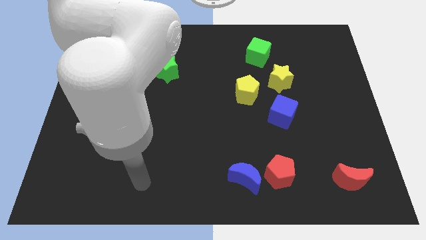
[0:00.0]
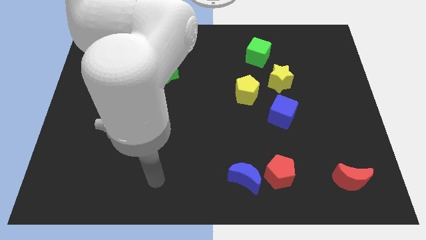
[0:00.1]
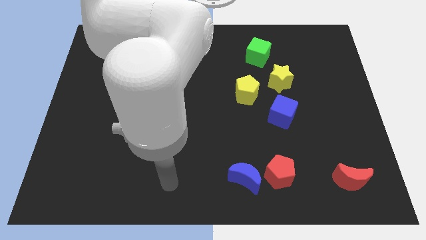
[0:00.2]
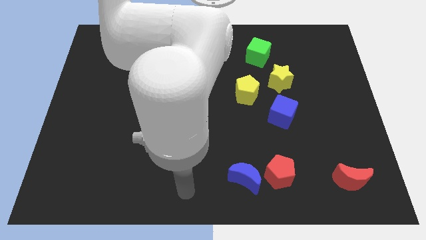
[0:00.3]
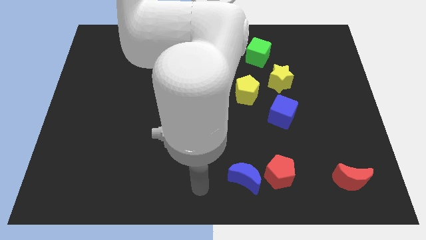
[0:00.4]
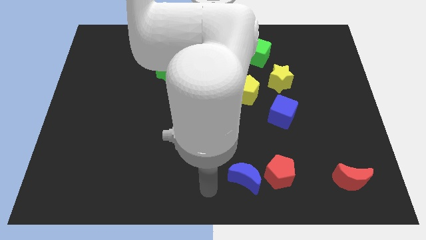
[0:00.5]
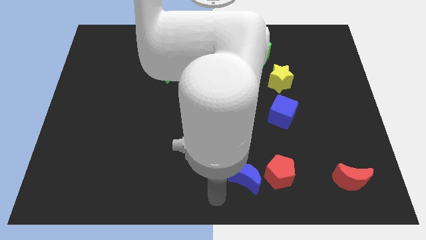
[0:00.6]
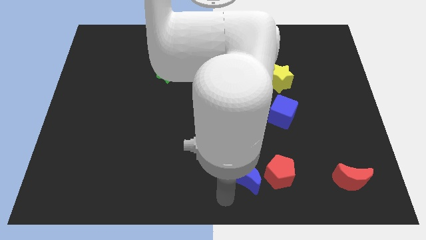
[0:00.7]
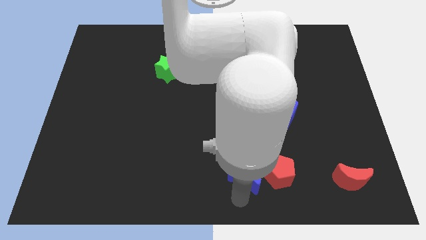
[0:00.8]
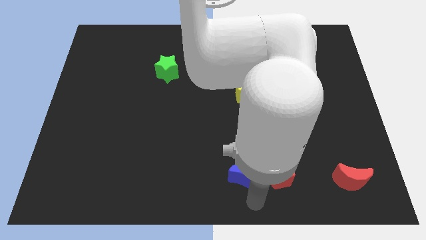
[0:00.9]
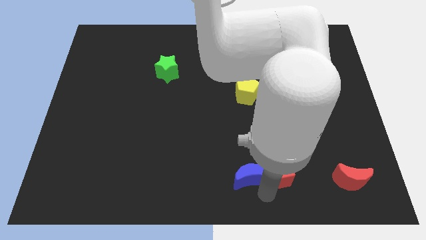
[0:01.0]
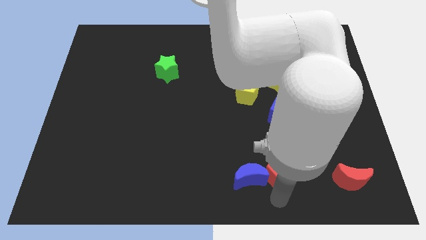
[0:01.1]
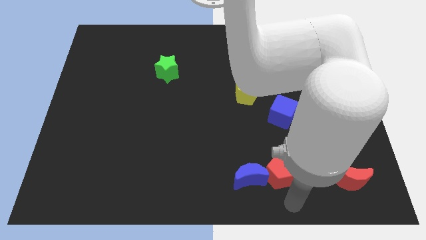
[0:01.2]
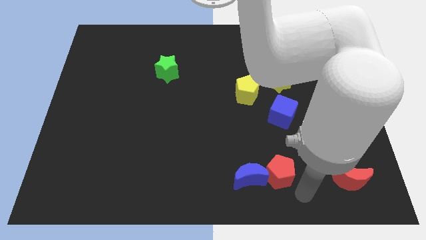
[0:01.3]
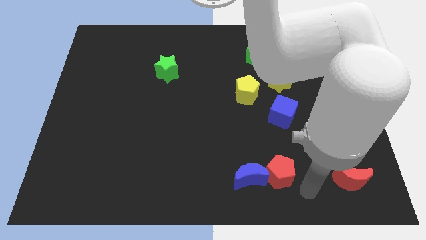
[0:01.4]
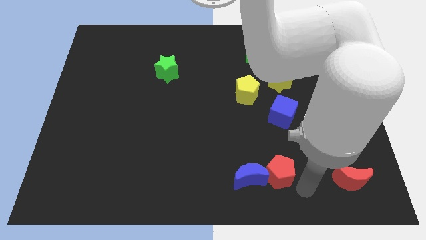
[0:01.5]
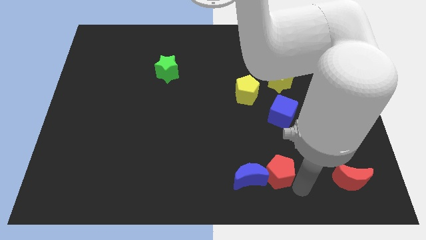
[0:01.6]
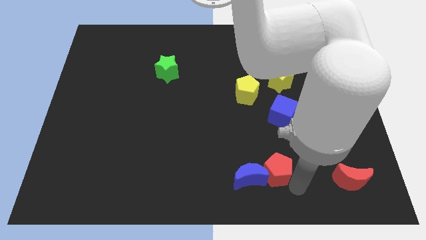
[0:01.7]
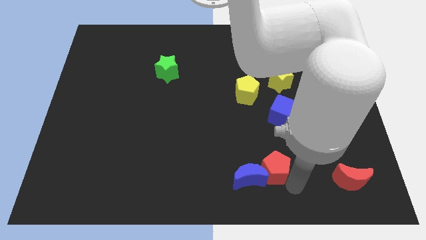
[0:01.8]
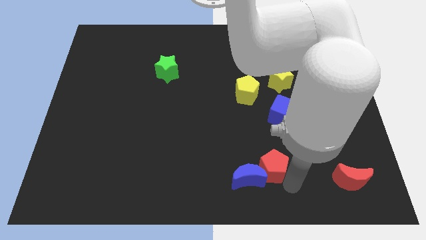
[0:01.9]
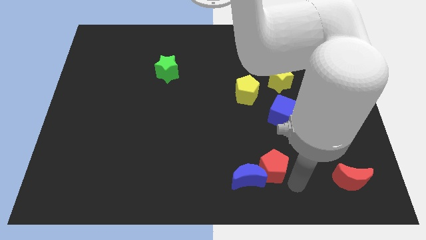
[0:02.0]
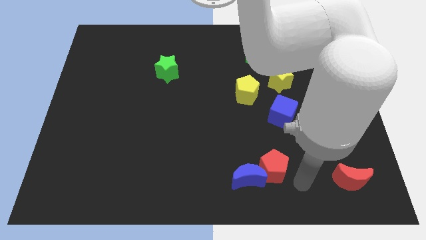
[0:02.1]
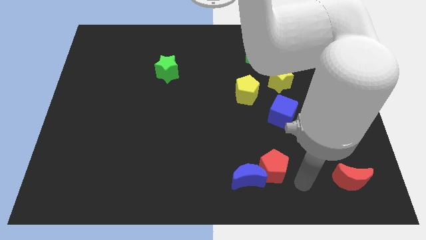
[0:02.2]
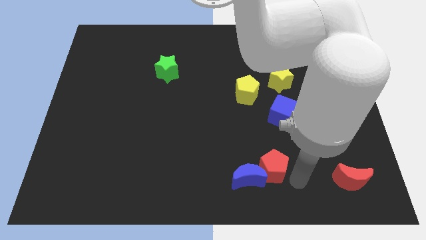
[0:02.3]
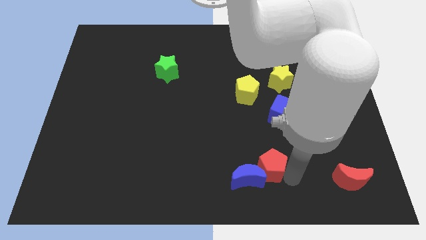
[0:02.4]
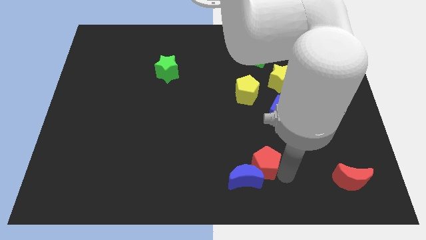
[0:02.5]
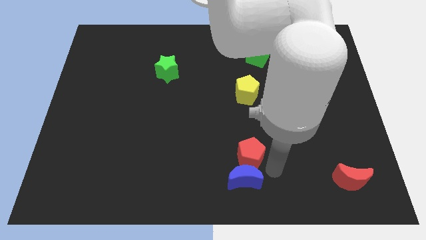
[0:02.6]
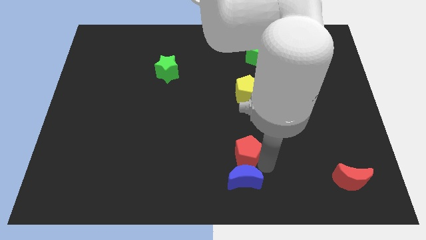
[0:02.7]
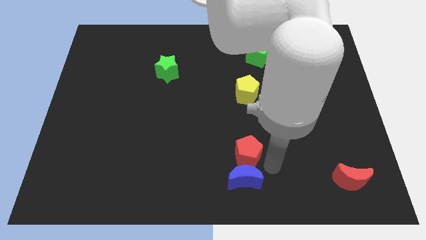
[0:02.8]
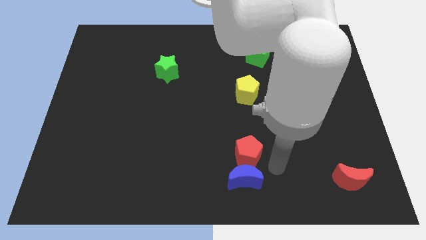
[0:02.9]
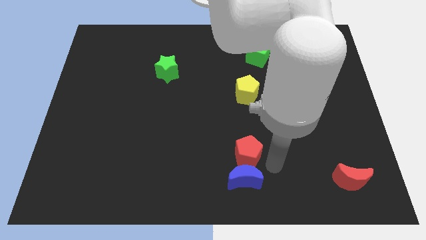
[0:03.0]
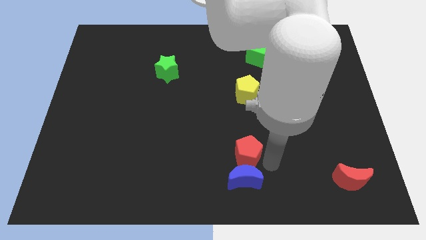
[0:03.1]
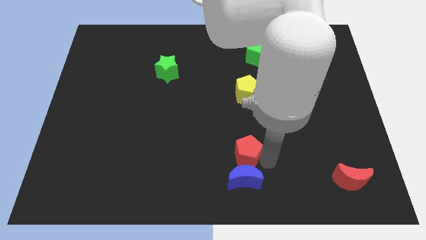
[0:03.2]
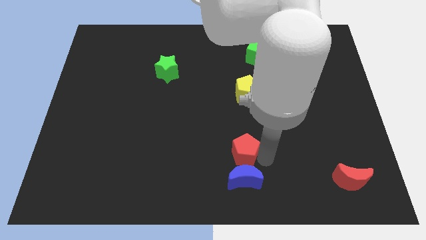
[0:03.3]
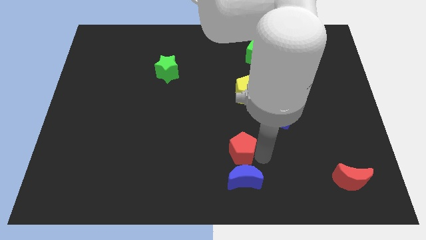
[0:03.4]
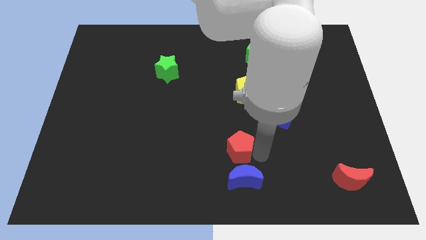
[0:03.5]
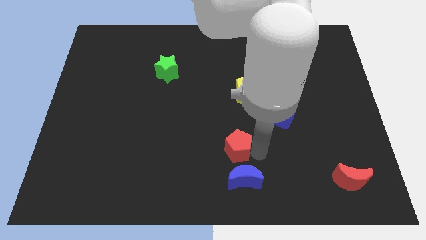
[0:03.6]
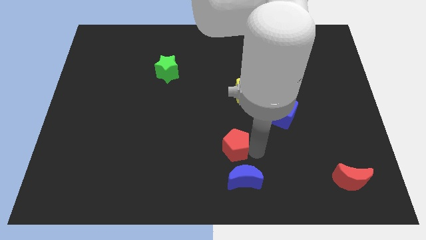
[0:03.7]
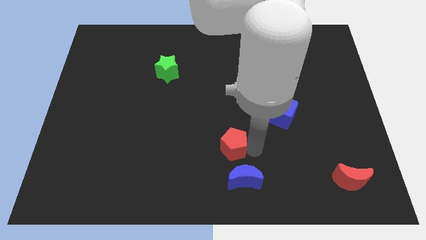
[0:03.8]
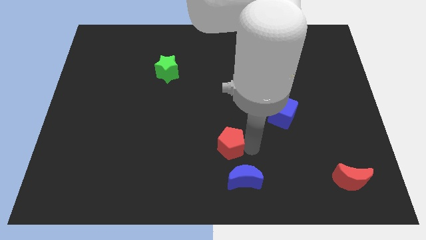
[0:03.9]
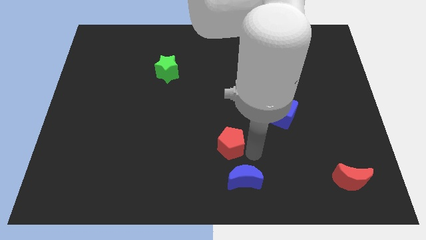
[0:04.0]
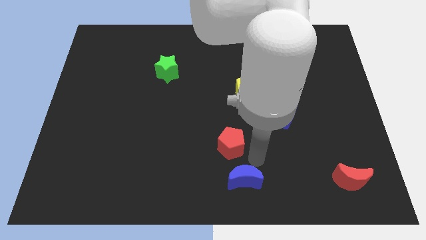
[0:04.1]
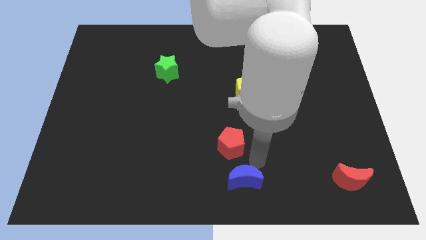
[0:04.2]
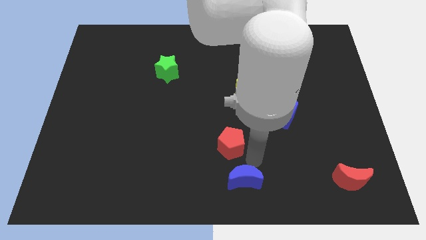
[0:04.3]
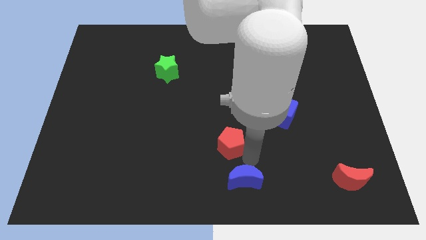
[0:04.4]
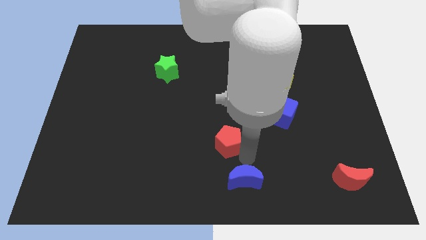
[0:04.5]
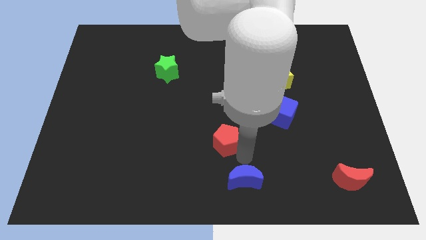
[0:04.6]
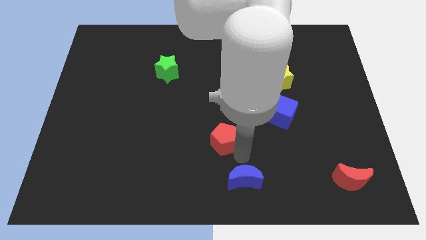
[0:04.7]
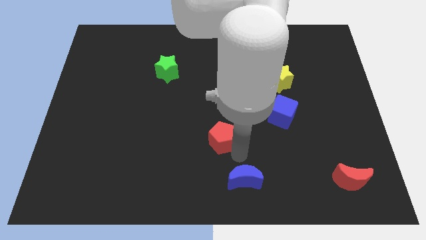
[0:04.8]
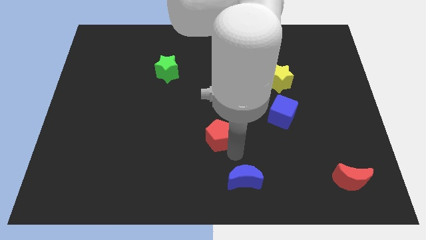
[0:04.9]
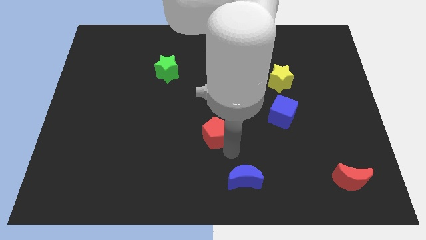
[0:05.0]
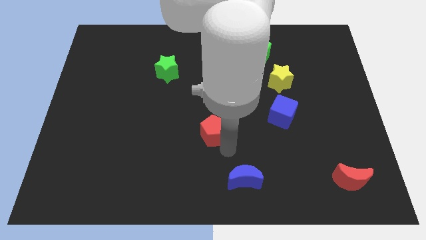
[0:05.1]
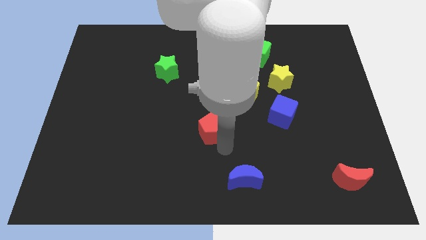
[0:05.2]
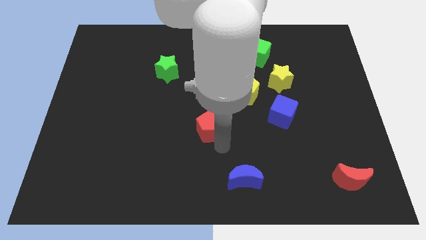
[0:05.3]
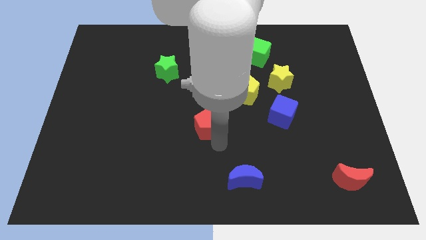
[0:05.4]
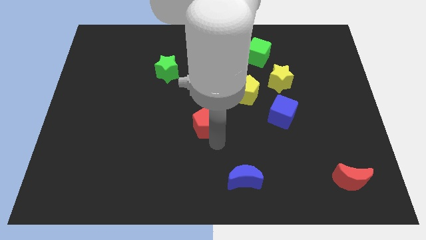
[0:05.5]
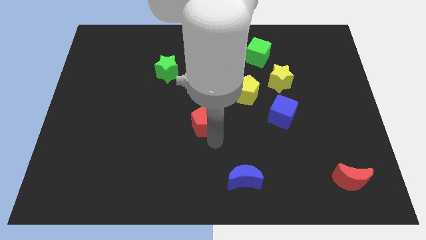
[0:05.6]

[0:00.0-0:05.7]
push the red pentagon upwards and left

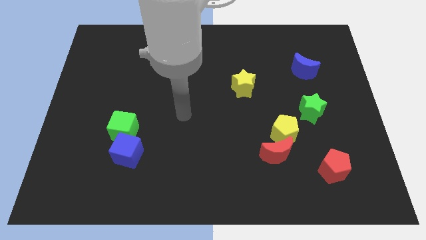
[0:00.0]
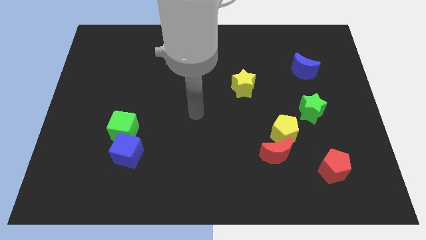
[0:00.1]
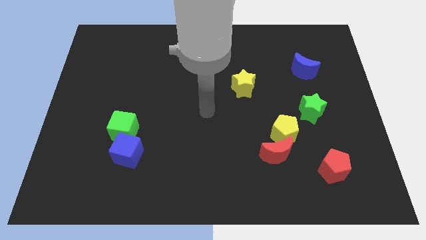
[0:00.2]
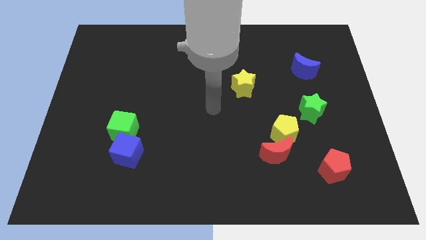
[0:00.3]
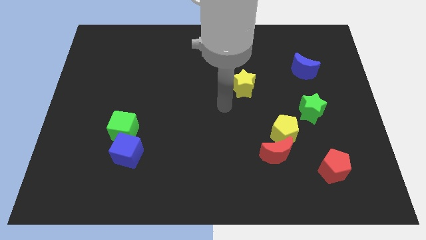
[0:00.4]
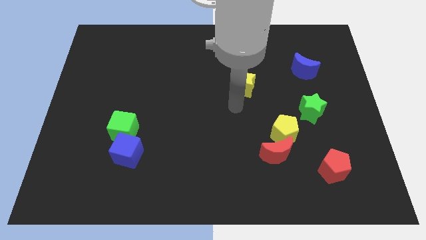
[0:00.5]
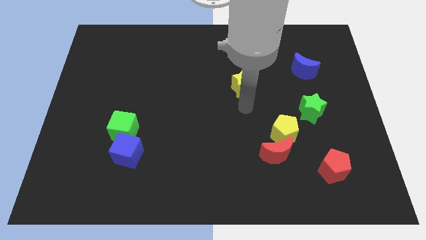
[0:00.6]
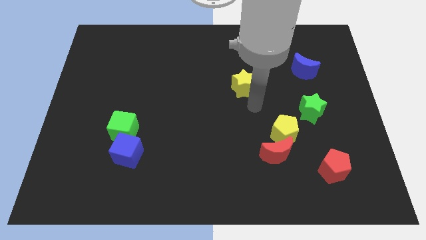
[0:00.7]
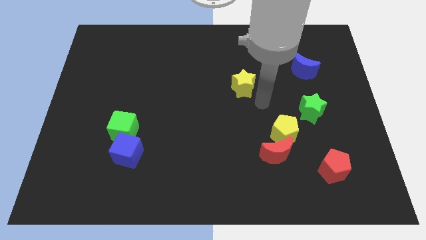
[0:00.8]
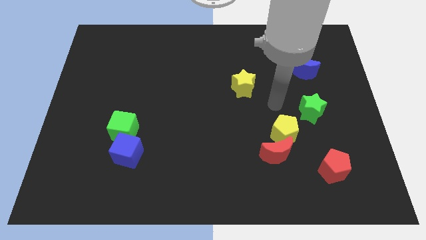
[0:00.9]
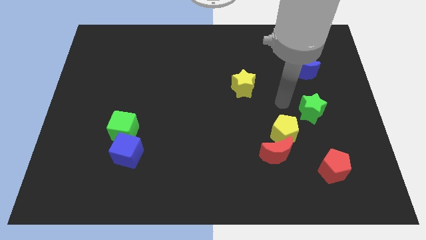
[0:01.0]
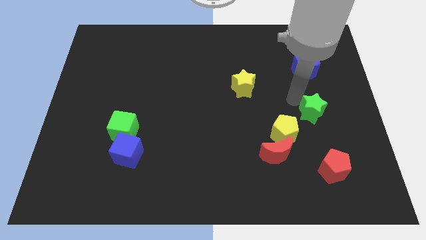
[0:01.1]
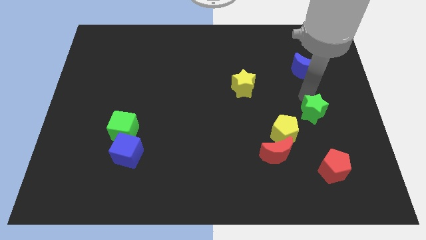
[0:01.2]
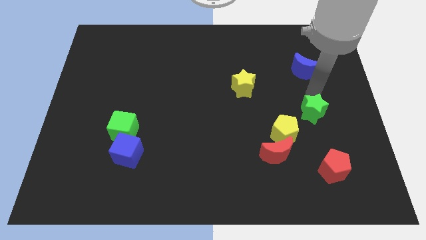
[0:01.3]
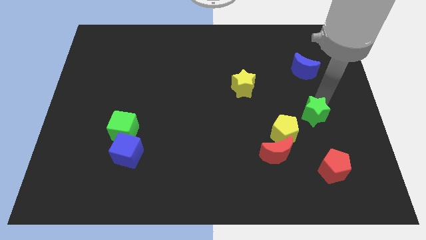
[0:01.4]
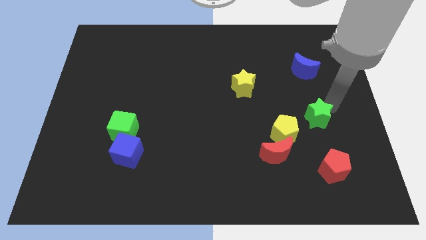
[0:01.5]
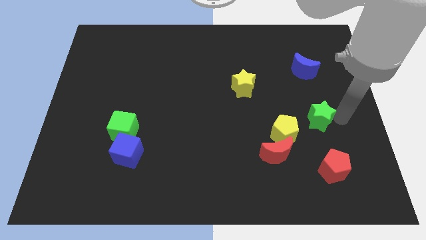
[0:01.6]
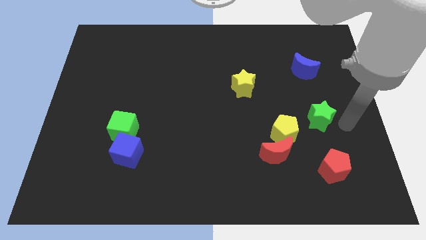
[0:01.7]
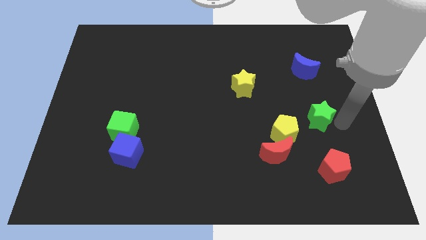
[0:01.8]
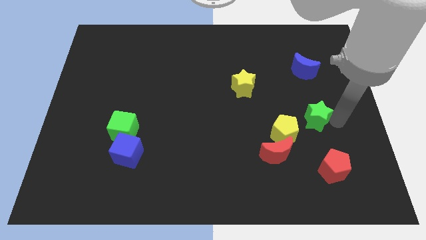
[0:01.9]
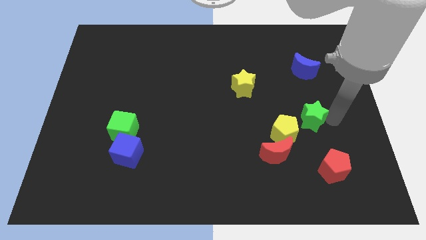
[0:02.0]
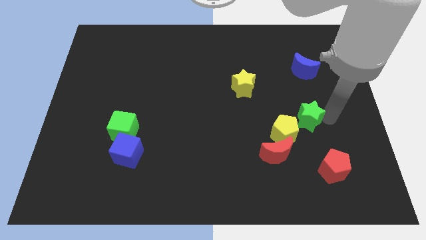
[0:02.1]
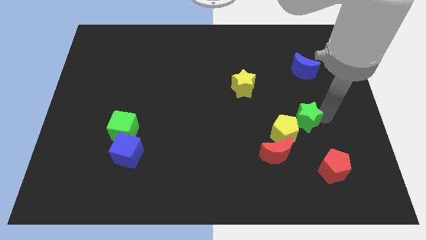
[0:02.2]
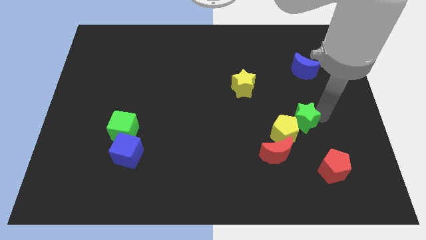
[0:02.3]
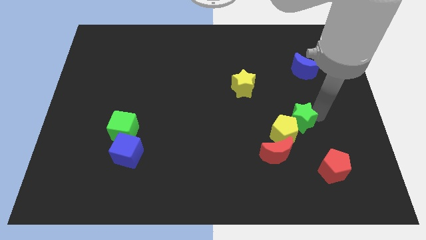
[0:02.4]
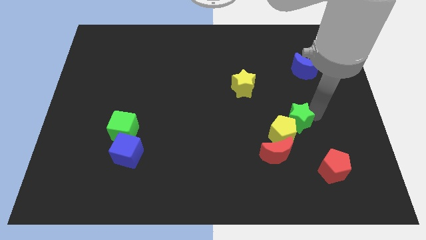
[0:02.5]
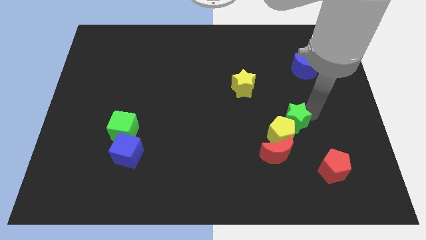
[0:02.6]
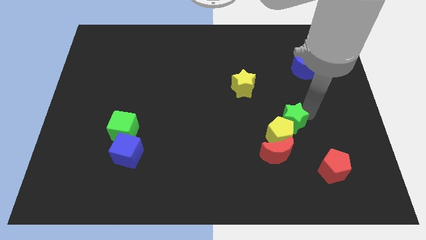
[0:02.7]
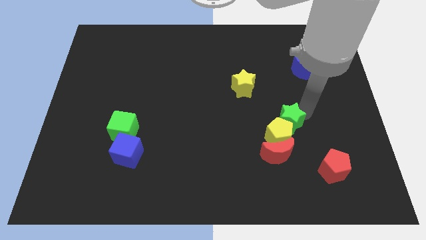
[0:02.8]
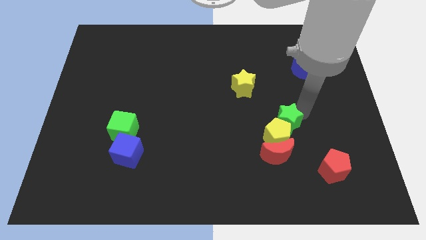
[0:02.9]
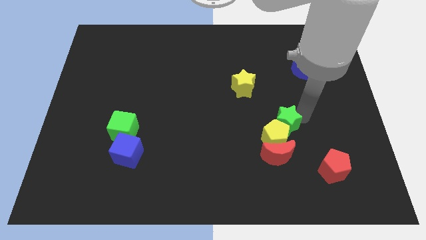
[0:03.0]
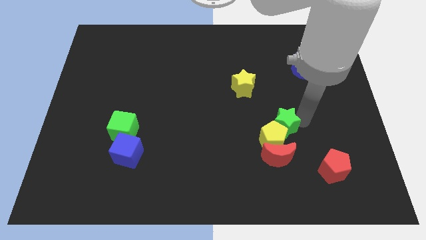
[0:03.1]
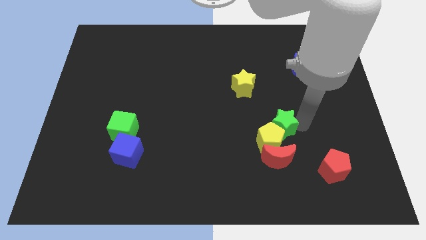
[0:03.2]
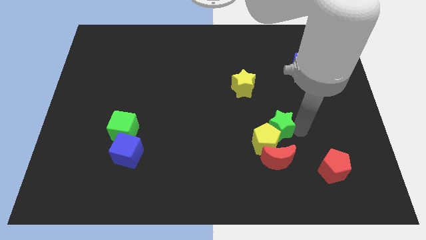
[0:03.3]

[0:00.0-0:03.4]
slightly slide the green star left
